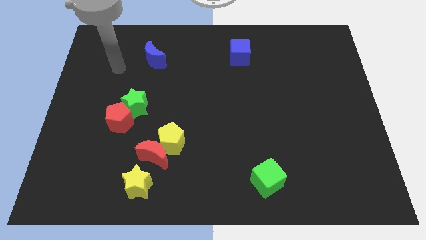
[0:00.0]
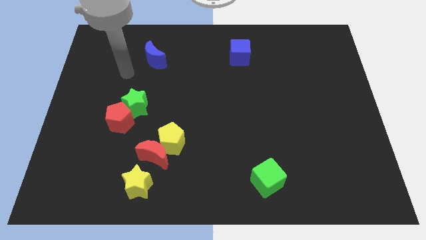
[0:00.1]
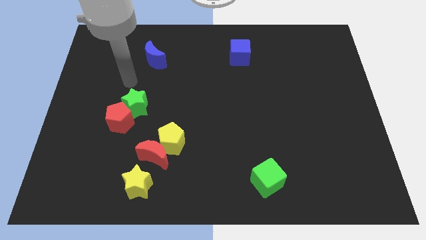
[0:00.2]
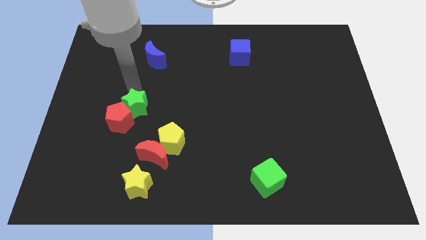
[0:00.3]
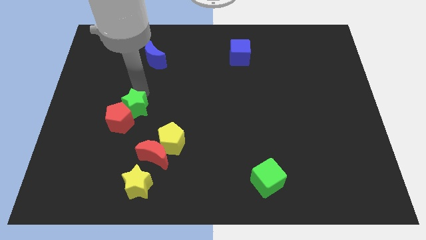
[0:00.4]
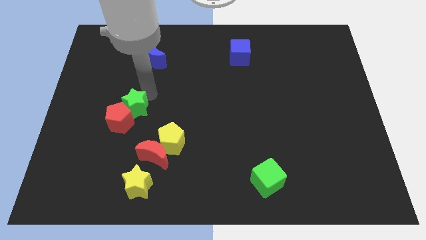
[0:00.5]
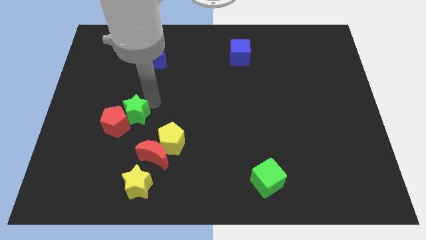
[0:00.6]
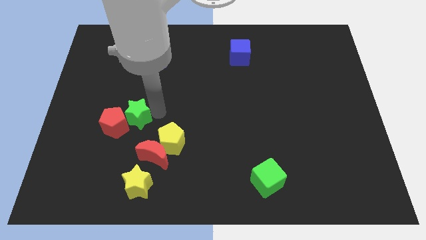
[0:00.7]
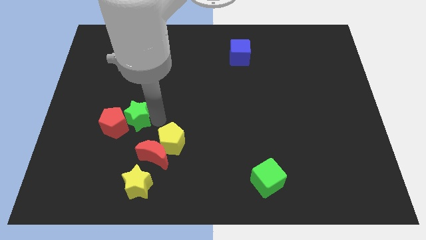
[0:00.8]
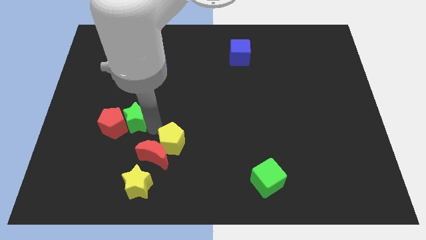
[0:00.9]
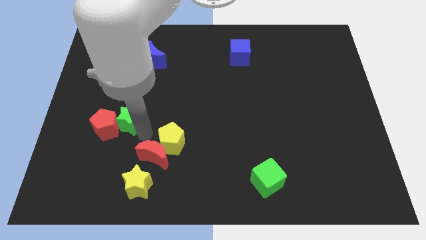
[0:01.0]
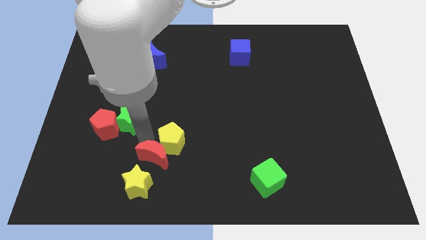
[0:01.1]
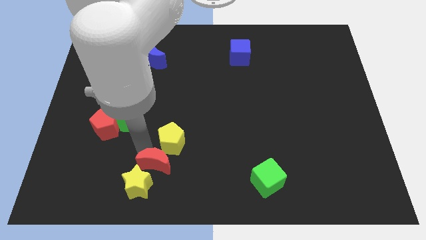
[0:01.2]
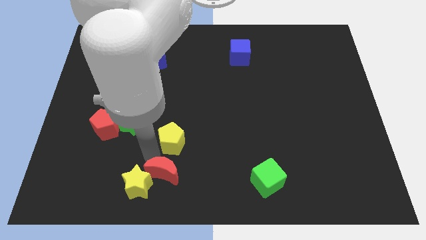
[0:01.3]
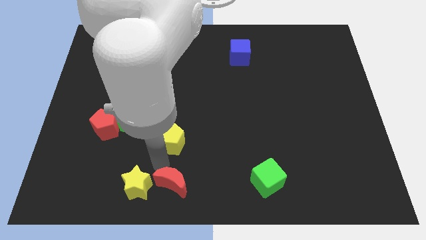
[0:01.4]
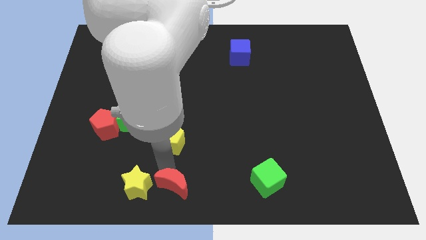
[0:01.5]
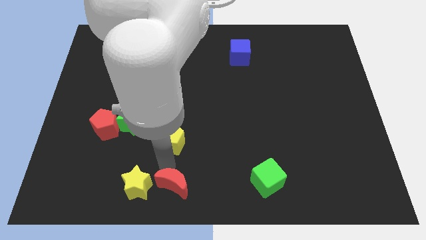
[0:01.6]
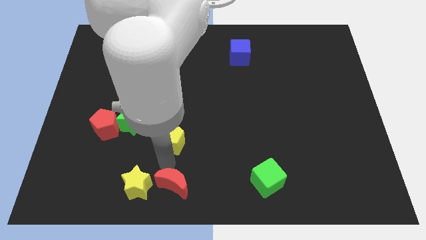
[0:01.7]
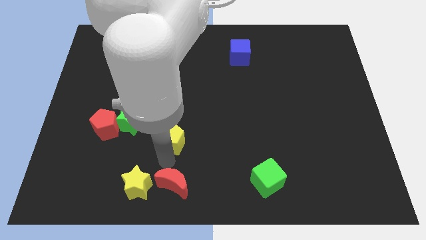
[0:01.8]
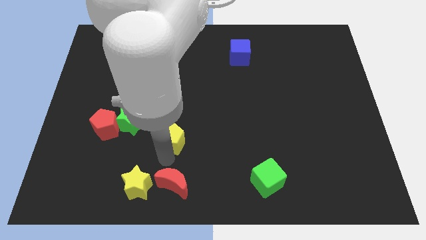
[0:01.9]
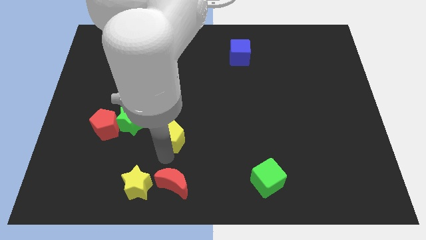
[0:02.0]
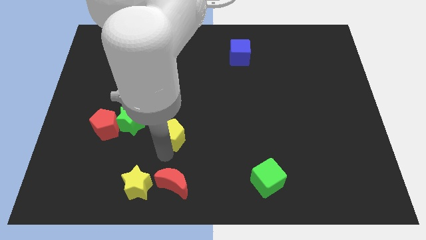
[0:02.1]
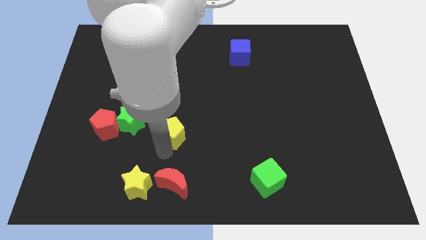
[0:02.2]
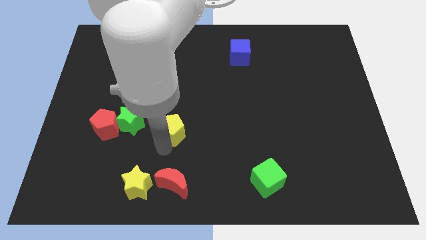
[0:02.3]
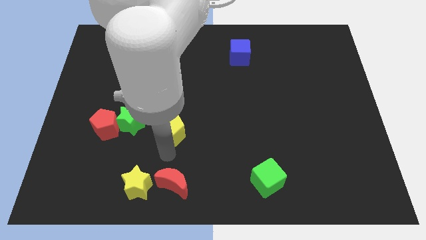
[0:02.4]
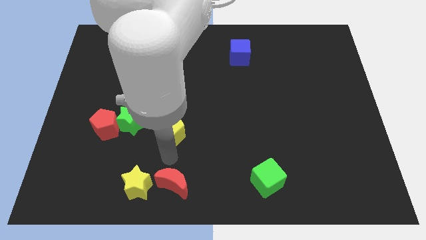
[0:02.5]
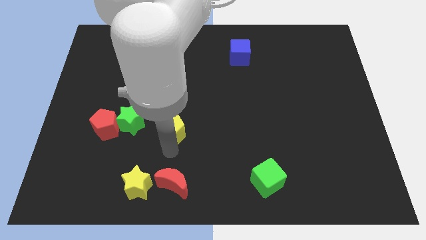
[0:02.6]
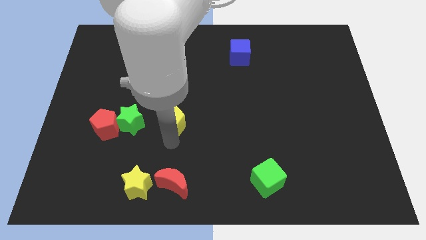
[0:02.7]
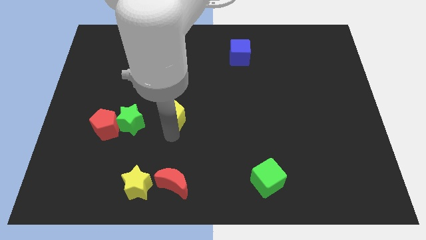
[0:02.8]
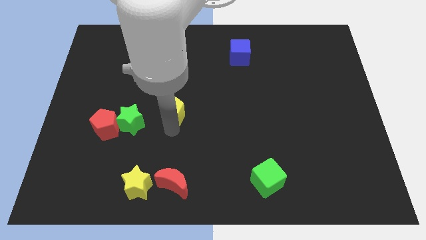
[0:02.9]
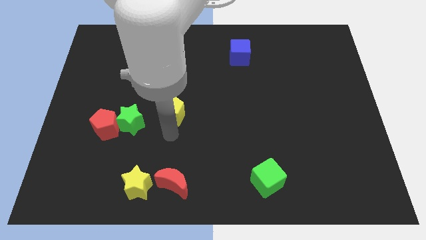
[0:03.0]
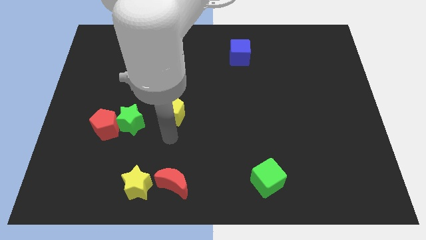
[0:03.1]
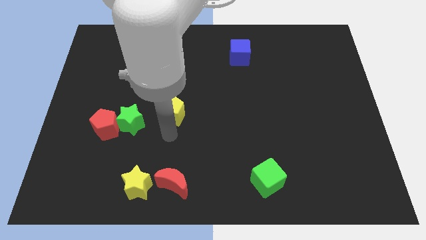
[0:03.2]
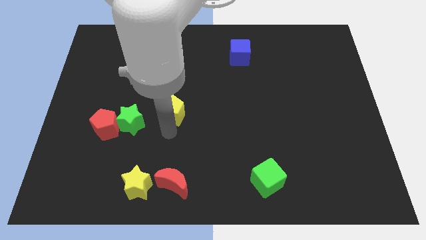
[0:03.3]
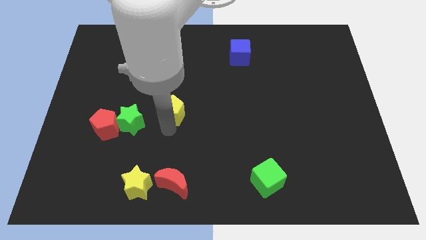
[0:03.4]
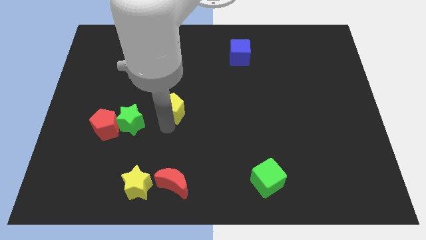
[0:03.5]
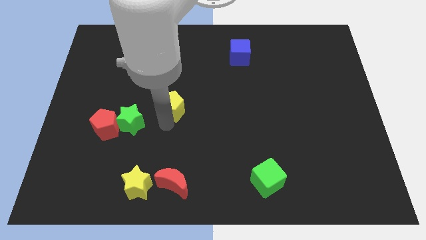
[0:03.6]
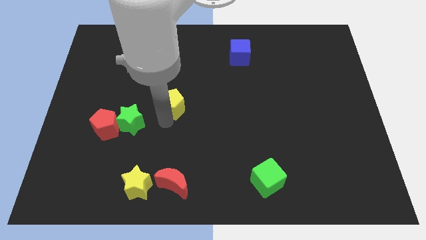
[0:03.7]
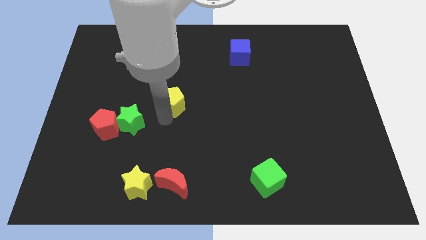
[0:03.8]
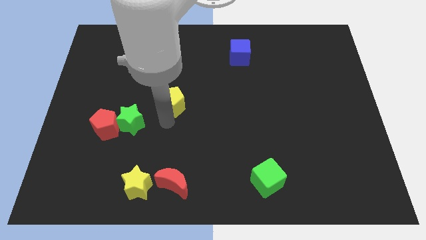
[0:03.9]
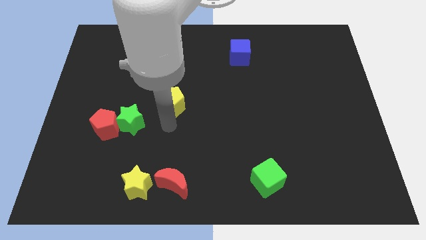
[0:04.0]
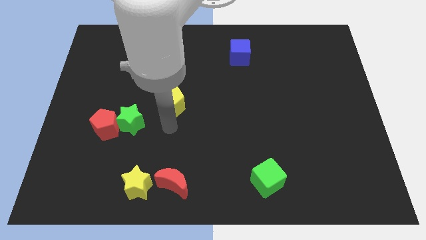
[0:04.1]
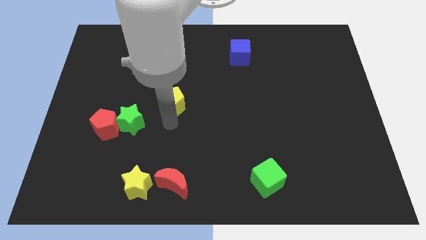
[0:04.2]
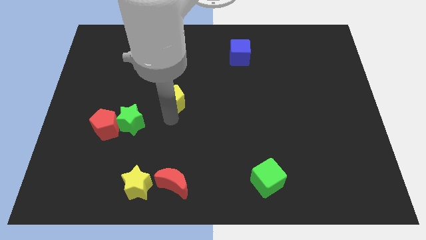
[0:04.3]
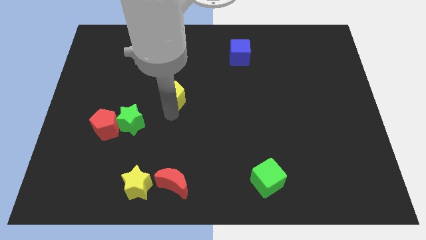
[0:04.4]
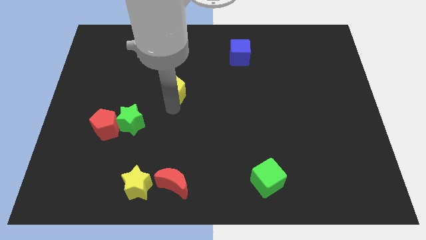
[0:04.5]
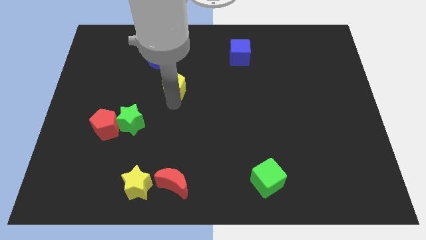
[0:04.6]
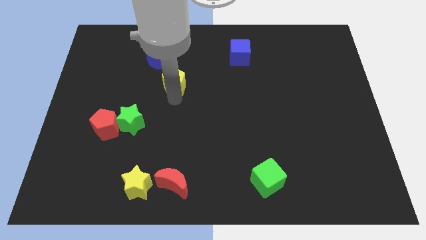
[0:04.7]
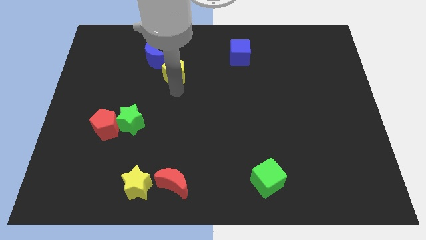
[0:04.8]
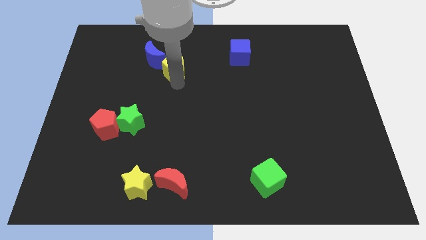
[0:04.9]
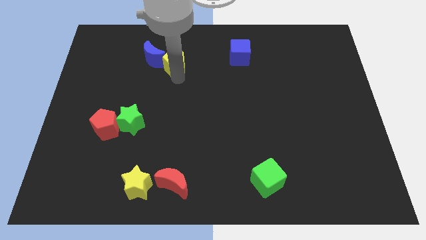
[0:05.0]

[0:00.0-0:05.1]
move the yellow pentagon next to the blue moon

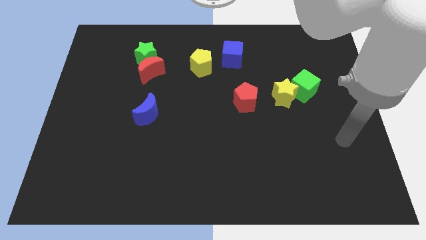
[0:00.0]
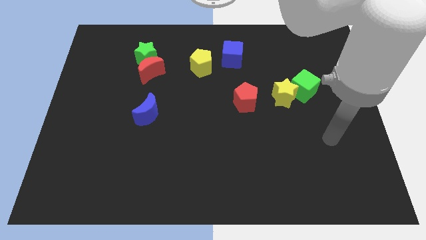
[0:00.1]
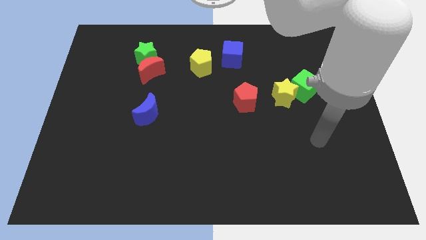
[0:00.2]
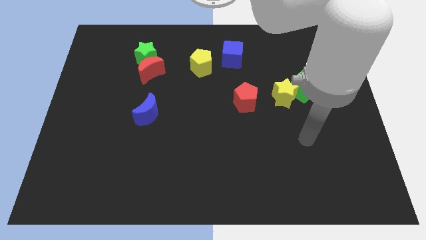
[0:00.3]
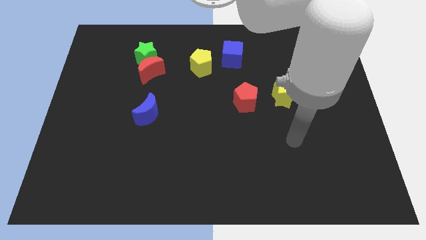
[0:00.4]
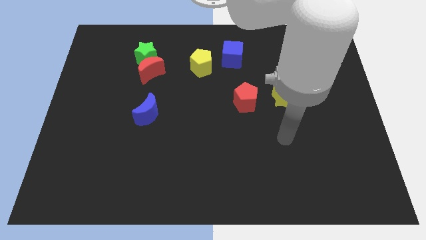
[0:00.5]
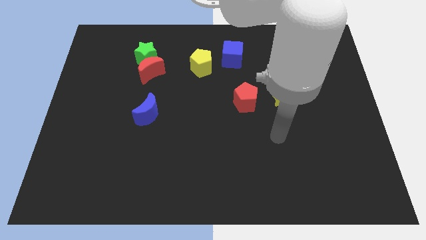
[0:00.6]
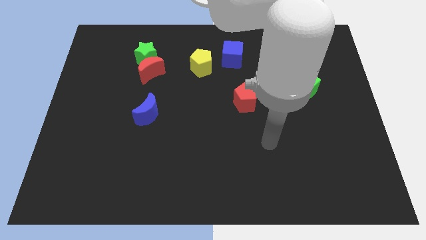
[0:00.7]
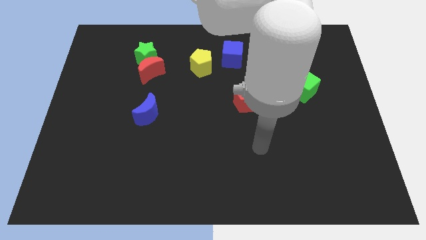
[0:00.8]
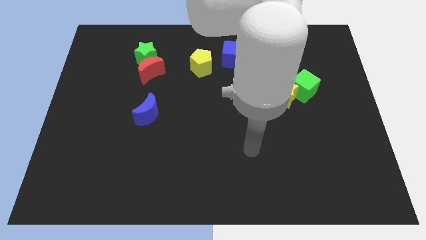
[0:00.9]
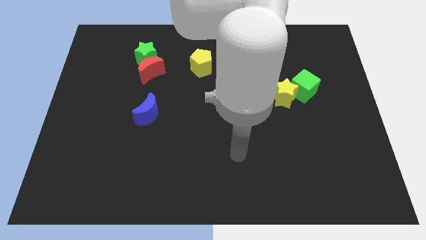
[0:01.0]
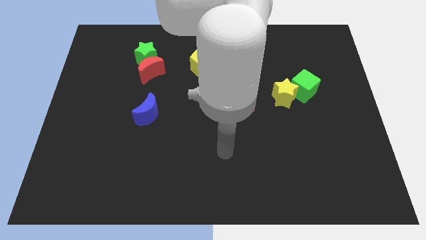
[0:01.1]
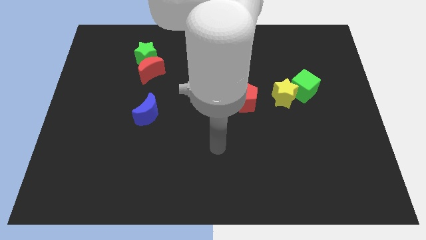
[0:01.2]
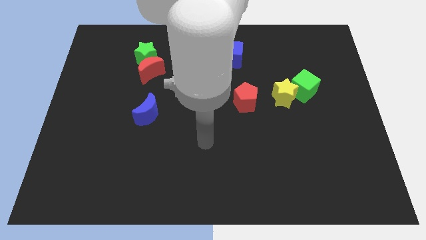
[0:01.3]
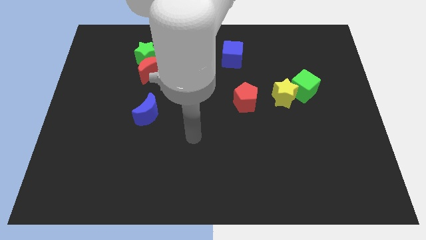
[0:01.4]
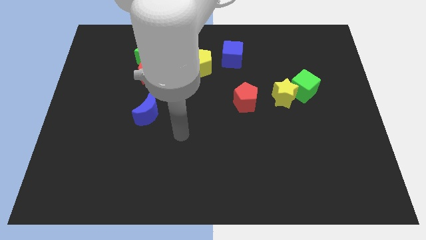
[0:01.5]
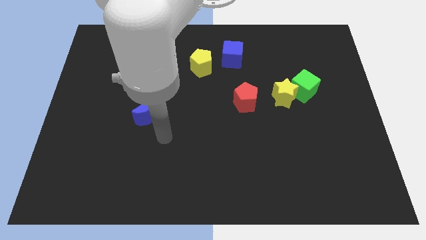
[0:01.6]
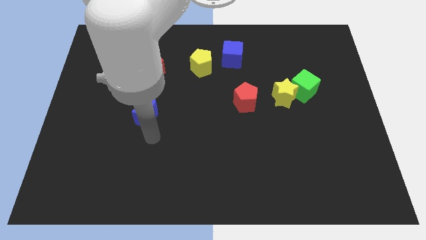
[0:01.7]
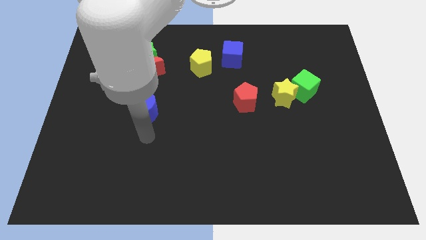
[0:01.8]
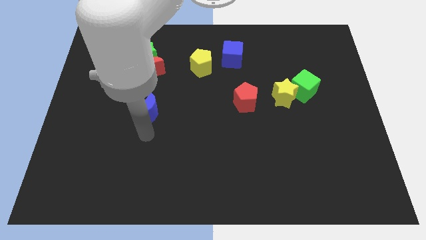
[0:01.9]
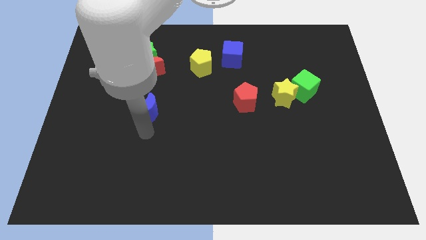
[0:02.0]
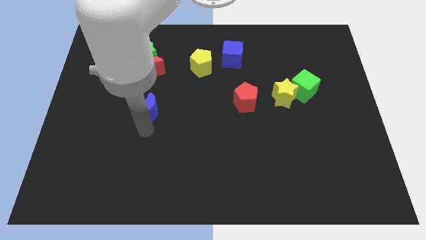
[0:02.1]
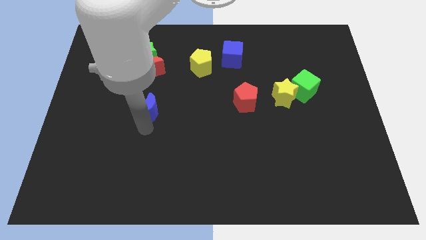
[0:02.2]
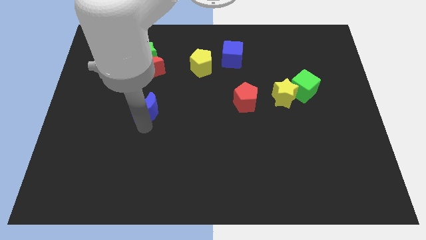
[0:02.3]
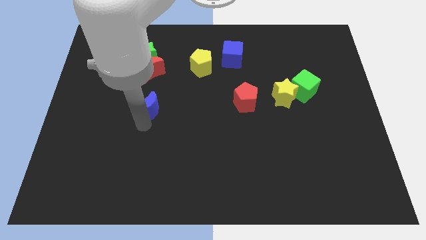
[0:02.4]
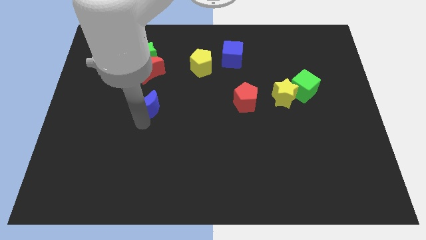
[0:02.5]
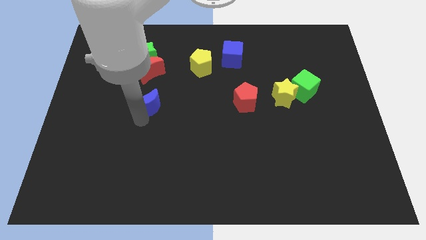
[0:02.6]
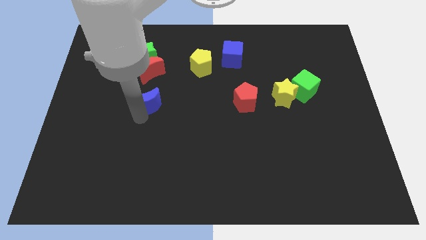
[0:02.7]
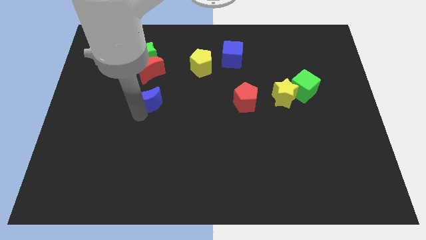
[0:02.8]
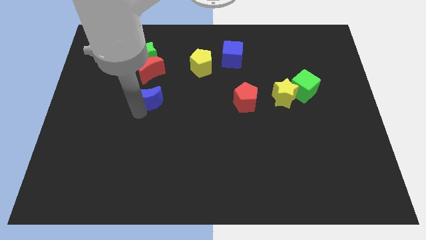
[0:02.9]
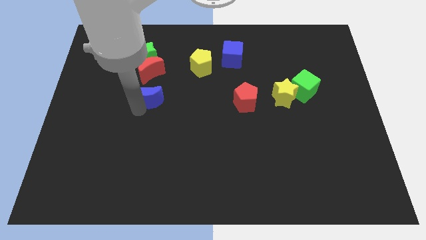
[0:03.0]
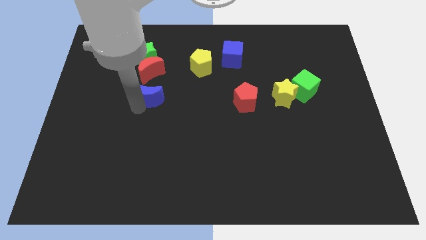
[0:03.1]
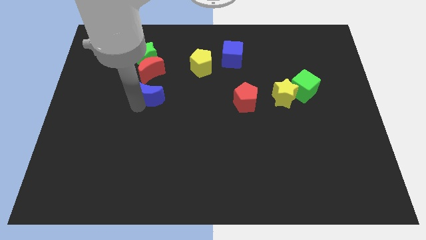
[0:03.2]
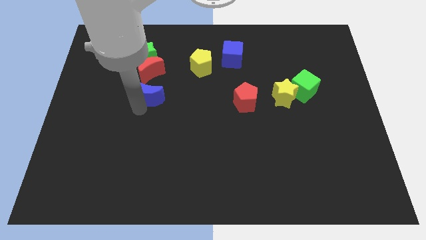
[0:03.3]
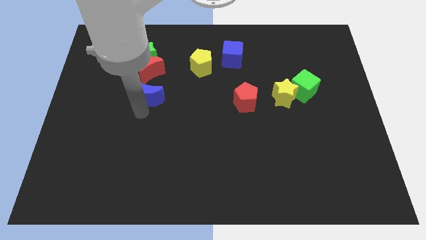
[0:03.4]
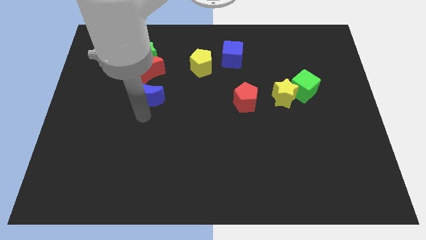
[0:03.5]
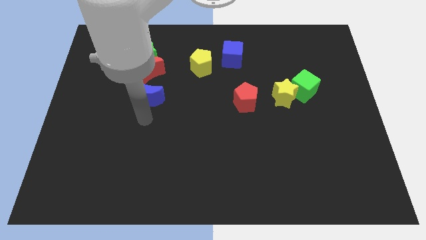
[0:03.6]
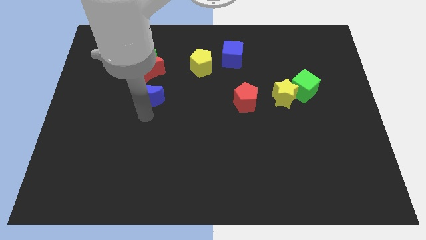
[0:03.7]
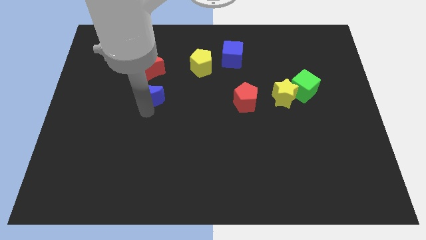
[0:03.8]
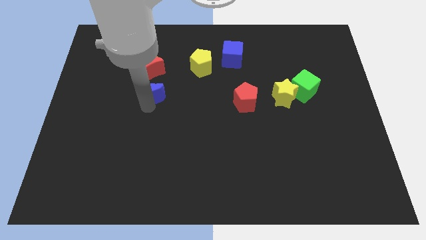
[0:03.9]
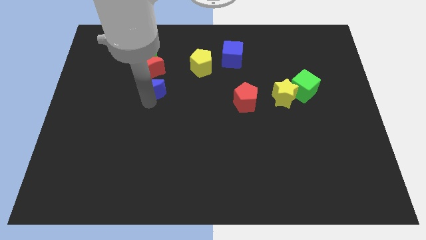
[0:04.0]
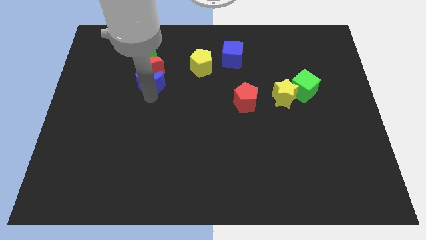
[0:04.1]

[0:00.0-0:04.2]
put the blue moon towards the red moon
